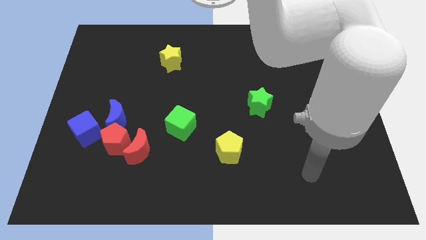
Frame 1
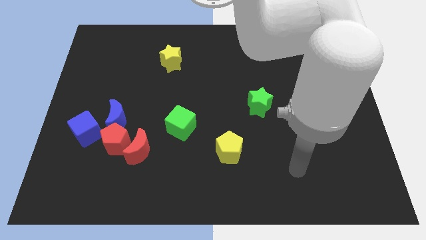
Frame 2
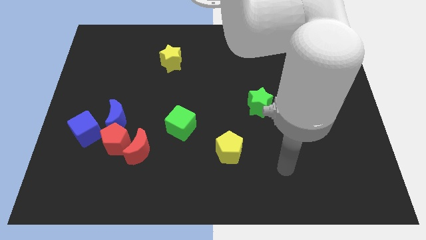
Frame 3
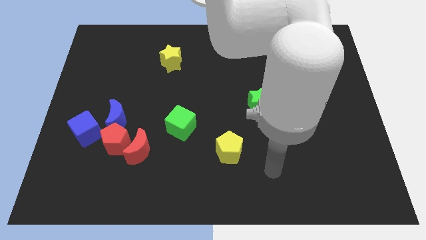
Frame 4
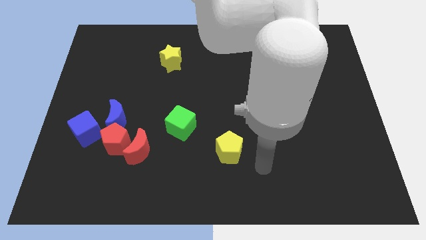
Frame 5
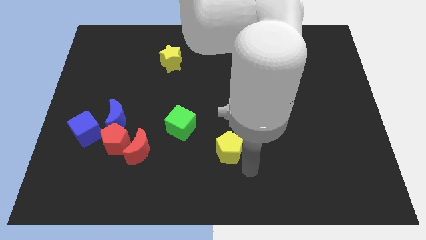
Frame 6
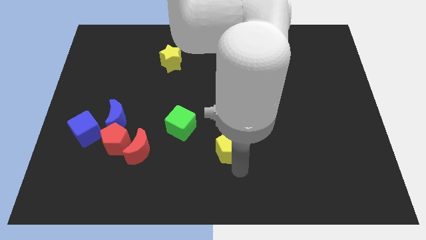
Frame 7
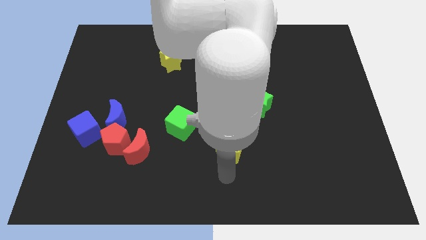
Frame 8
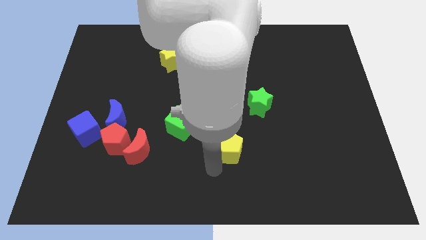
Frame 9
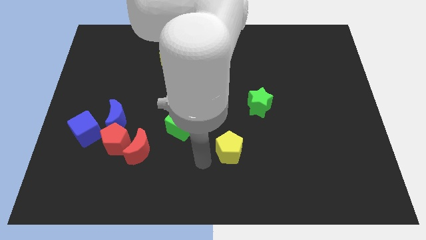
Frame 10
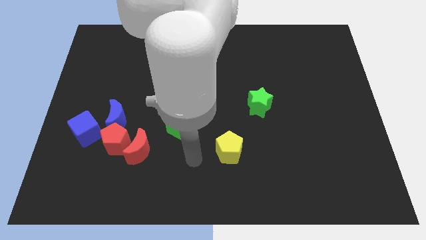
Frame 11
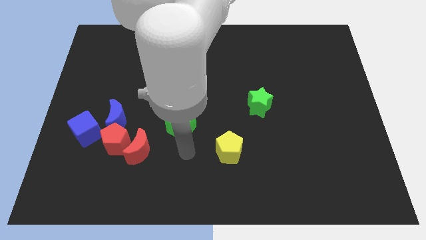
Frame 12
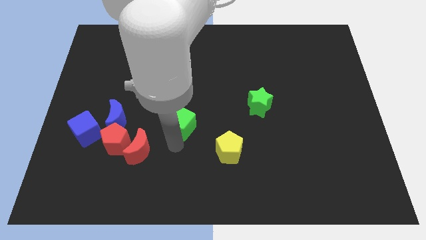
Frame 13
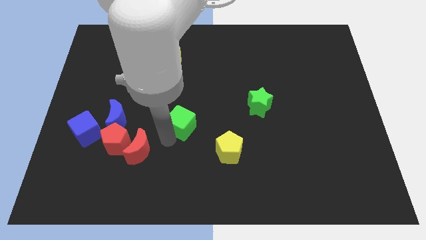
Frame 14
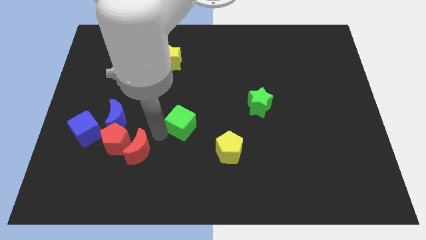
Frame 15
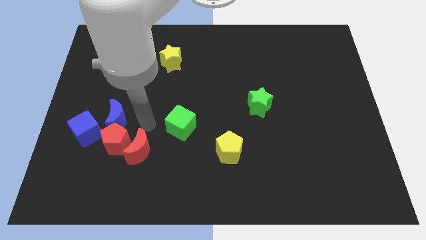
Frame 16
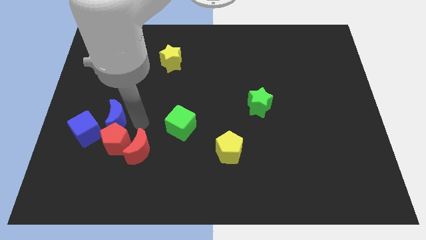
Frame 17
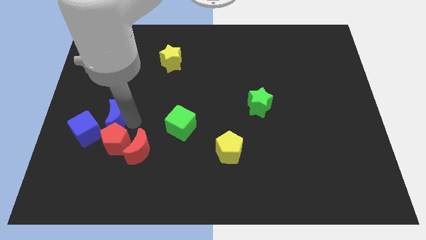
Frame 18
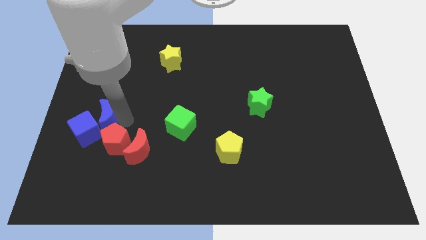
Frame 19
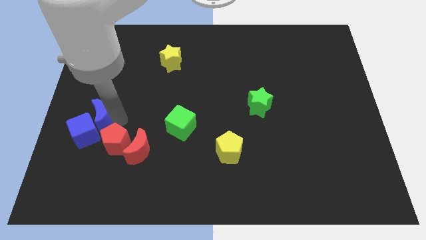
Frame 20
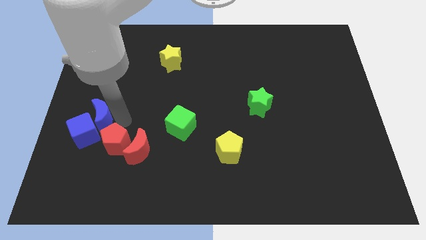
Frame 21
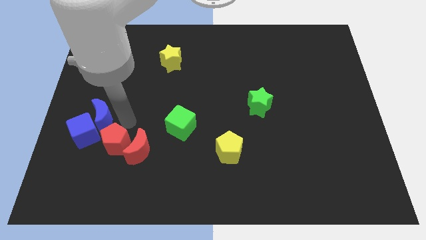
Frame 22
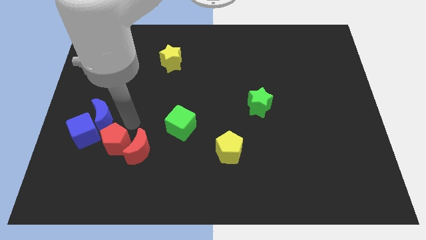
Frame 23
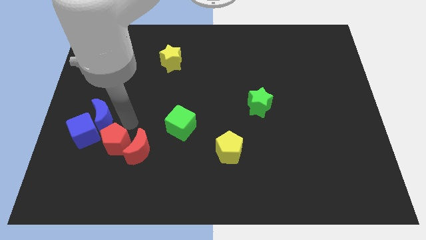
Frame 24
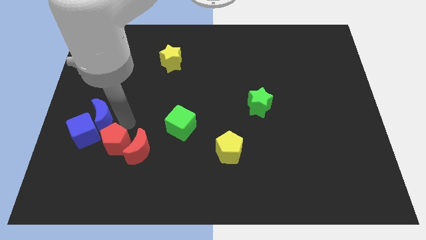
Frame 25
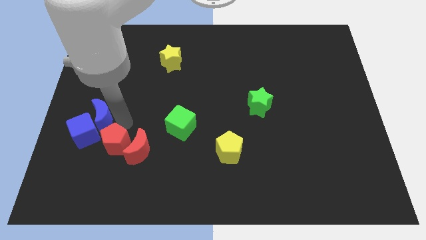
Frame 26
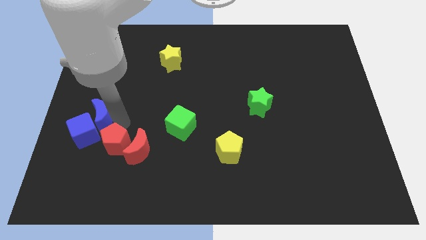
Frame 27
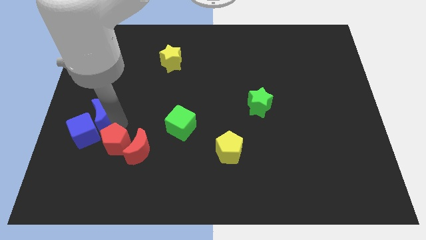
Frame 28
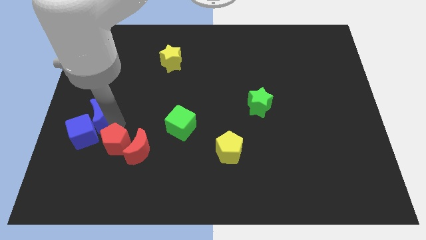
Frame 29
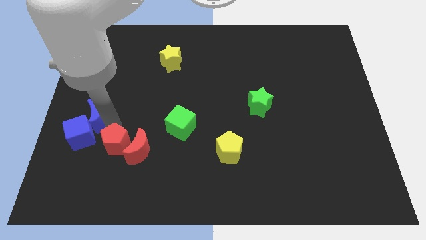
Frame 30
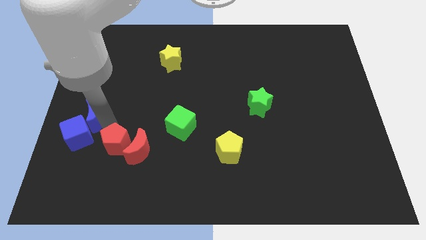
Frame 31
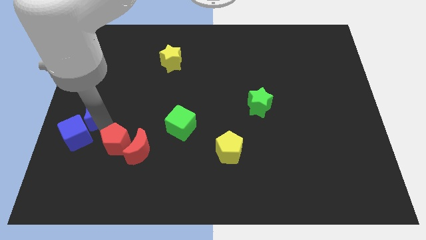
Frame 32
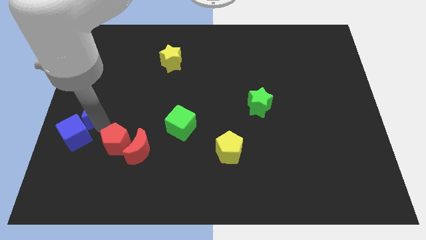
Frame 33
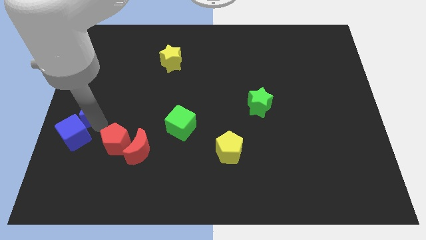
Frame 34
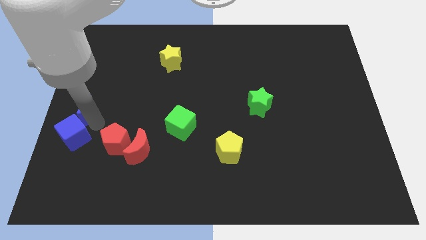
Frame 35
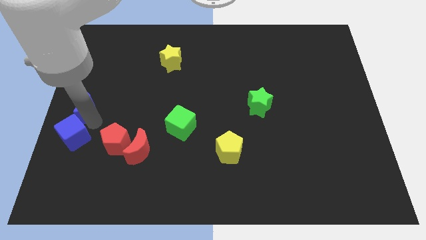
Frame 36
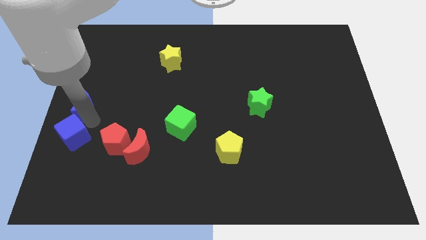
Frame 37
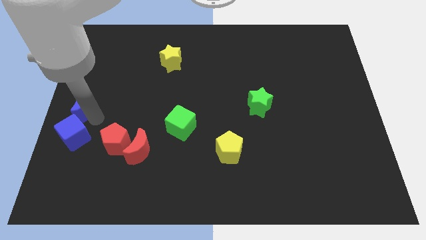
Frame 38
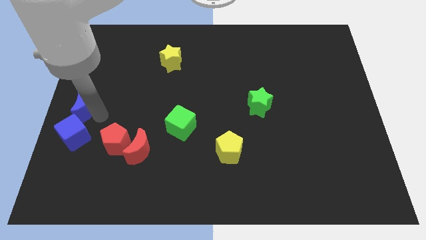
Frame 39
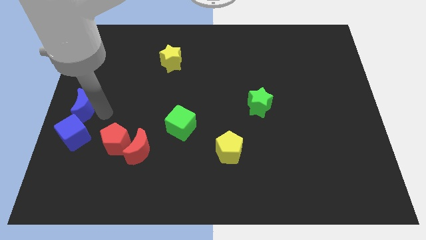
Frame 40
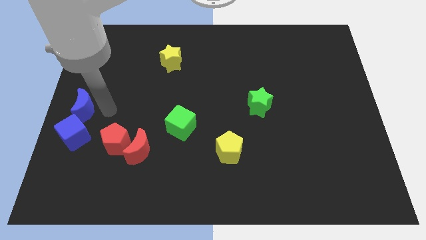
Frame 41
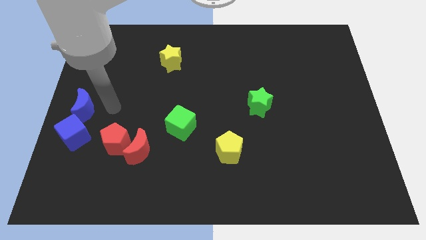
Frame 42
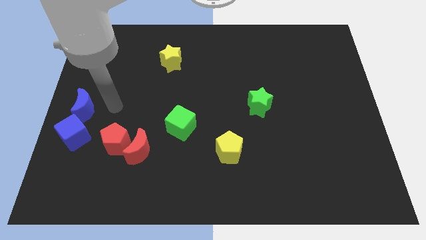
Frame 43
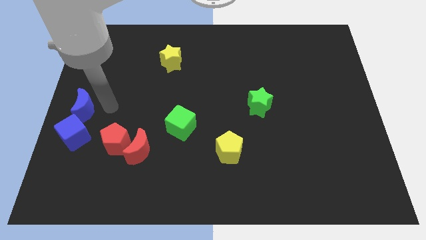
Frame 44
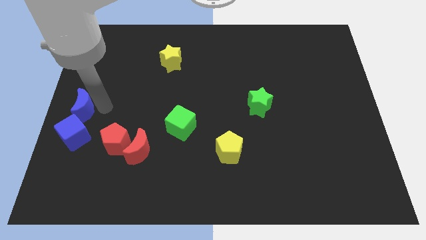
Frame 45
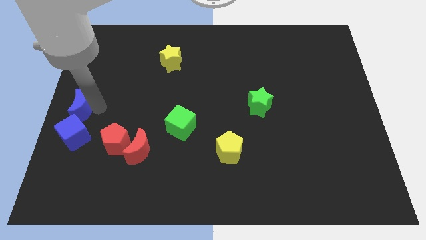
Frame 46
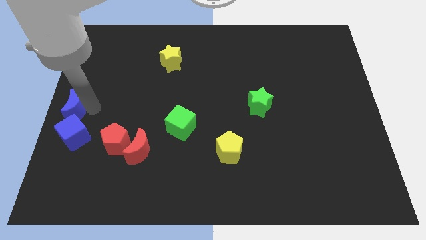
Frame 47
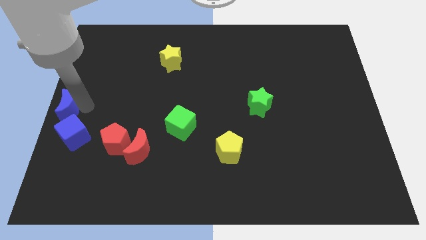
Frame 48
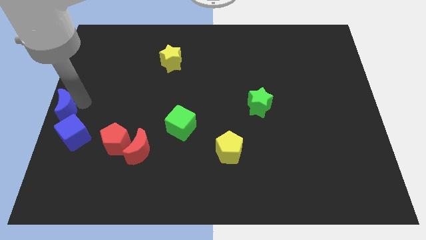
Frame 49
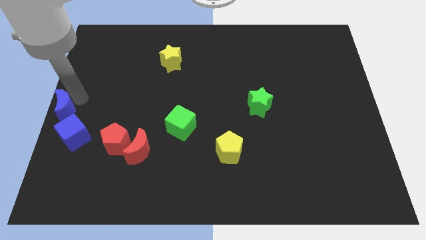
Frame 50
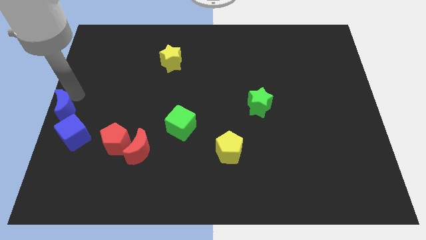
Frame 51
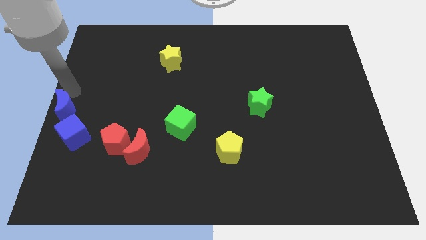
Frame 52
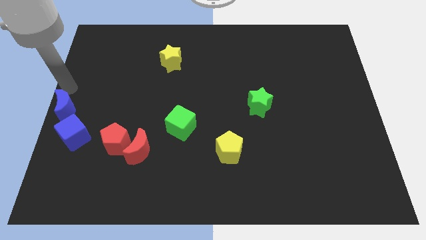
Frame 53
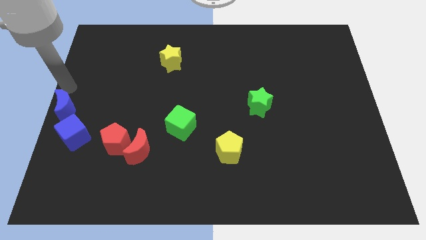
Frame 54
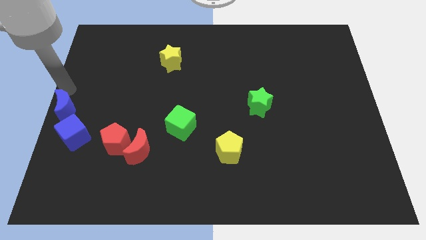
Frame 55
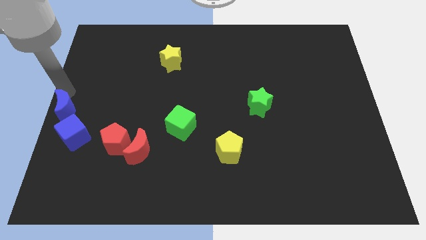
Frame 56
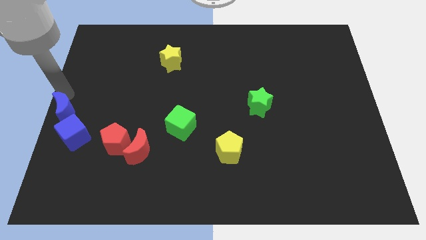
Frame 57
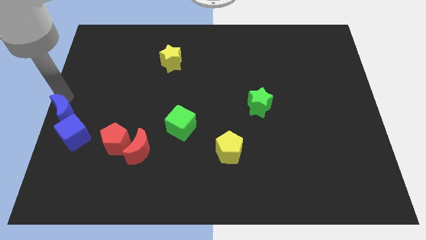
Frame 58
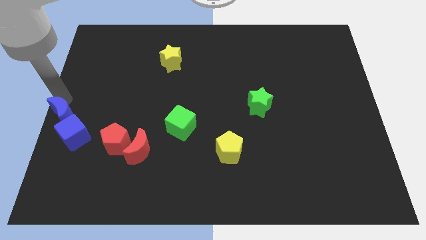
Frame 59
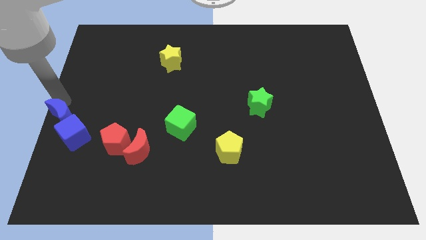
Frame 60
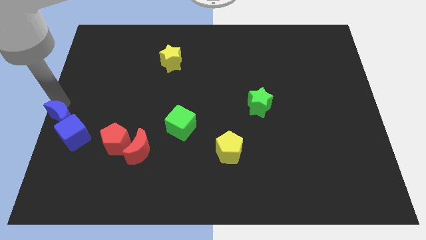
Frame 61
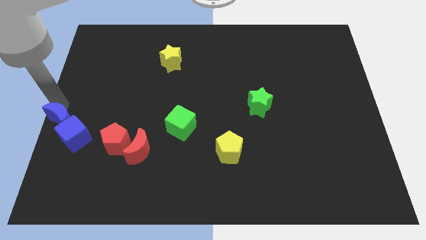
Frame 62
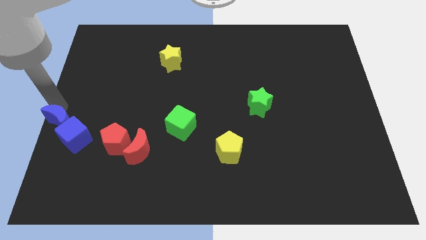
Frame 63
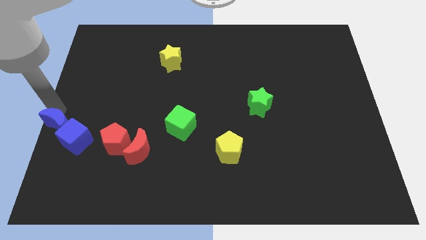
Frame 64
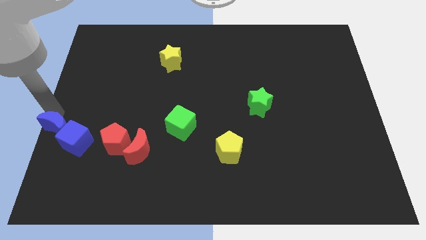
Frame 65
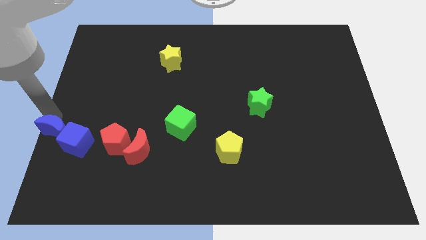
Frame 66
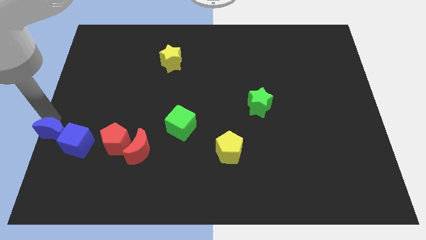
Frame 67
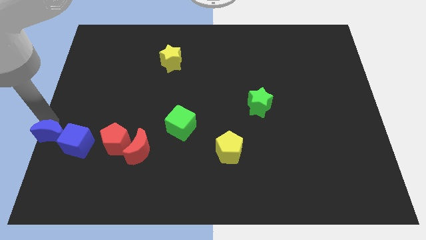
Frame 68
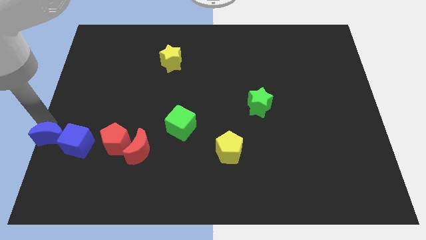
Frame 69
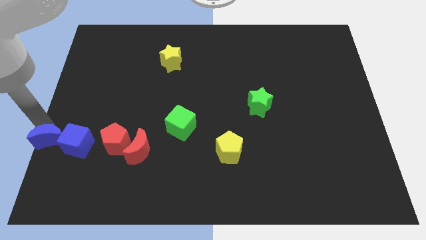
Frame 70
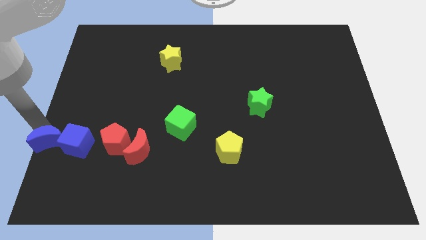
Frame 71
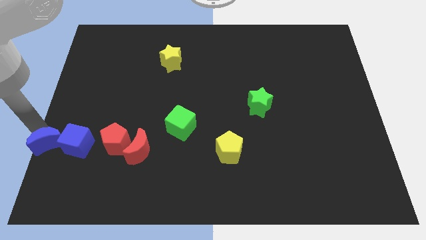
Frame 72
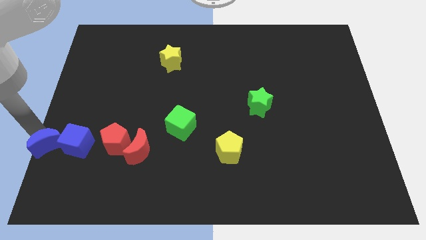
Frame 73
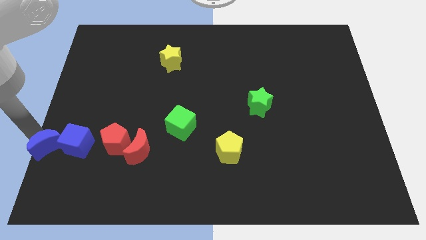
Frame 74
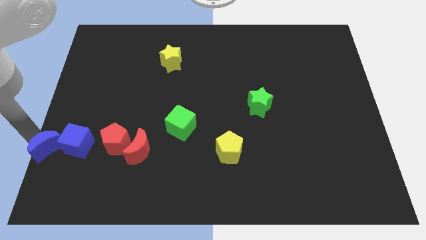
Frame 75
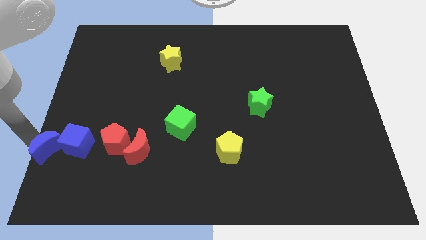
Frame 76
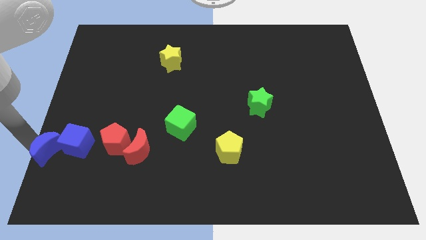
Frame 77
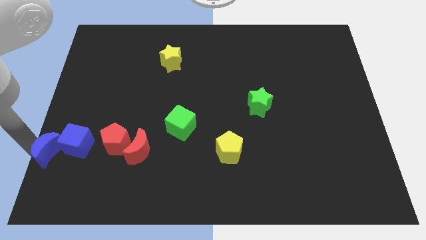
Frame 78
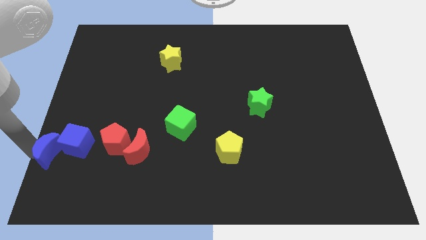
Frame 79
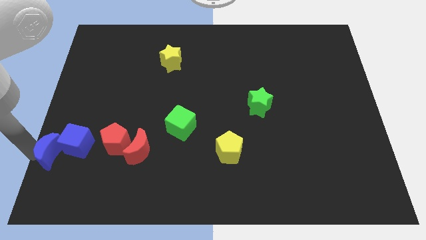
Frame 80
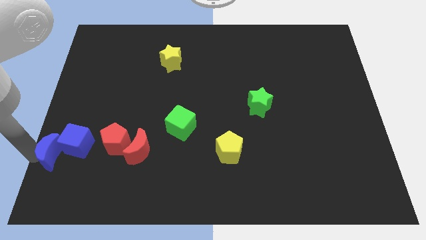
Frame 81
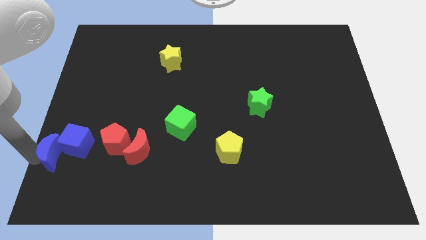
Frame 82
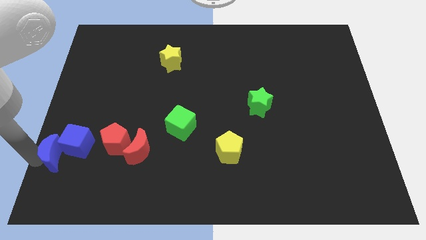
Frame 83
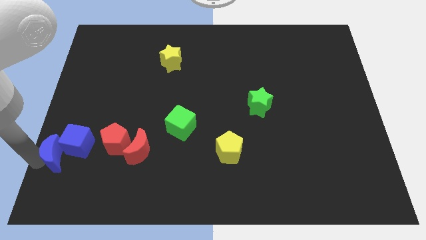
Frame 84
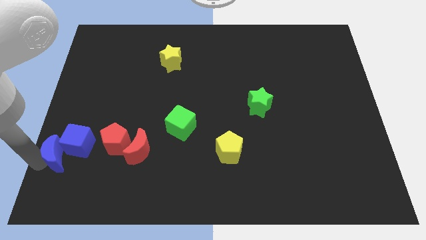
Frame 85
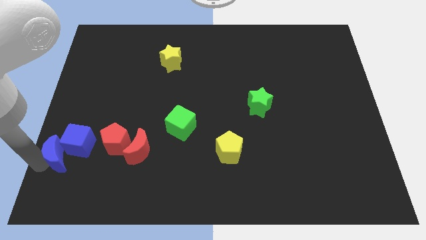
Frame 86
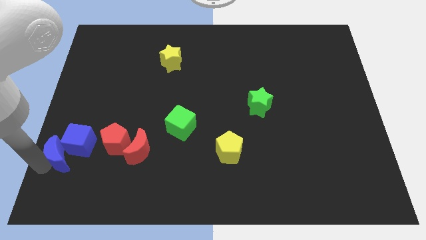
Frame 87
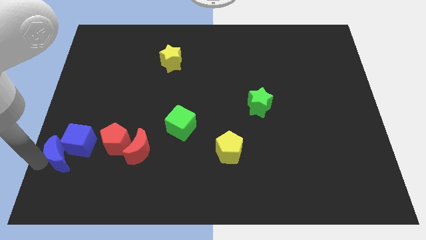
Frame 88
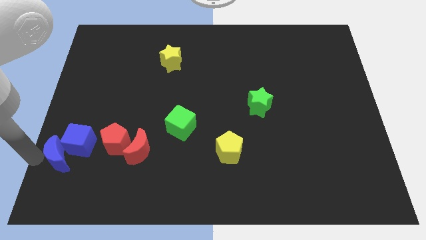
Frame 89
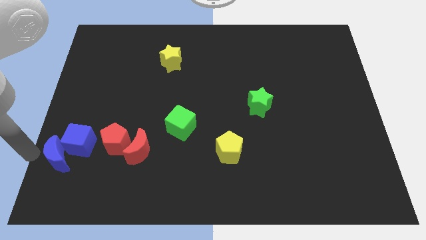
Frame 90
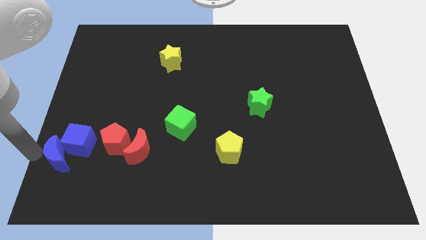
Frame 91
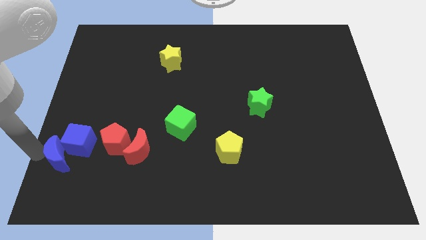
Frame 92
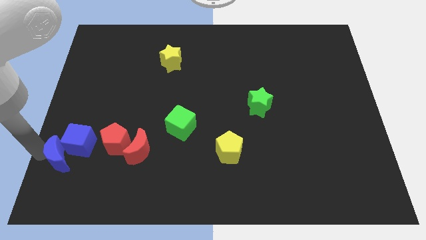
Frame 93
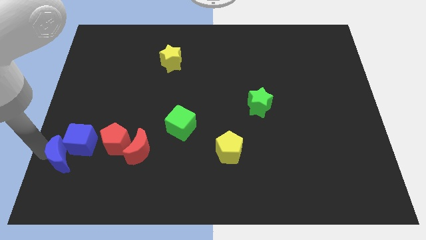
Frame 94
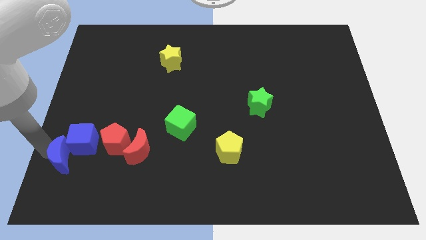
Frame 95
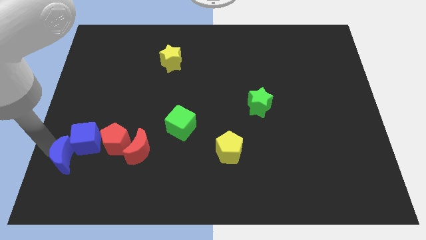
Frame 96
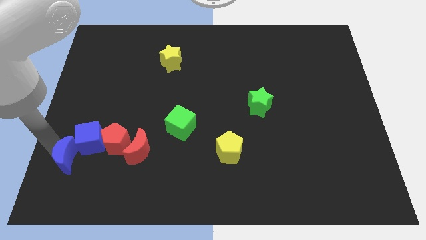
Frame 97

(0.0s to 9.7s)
slide the blue moon to the bottom left side of the red pentagon
